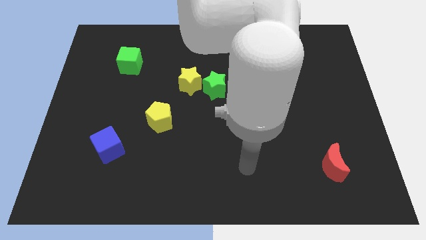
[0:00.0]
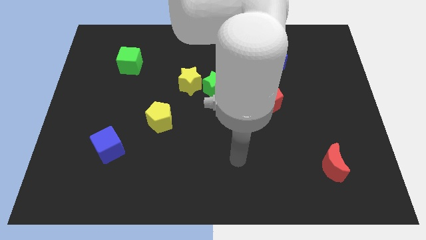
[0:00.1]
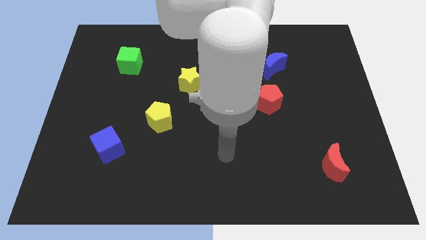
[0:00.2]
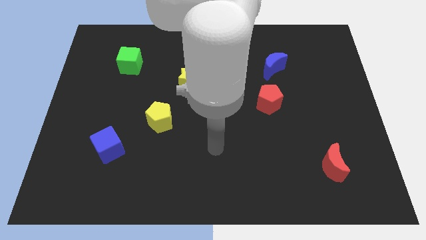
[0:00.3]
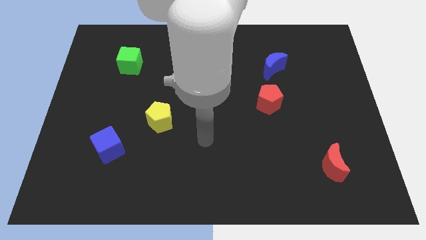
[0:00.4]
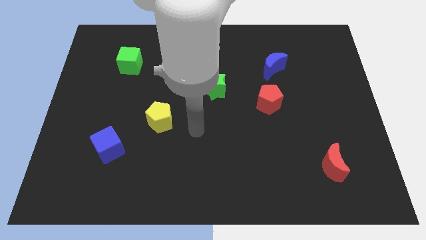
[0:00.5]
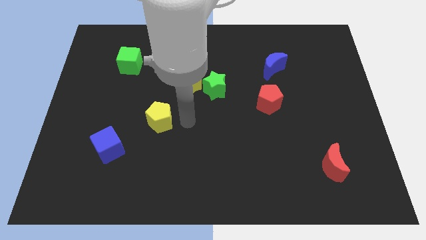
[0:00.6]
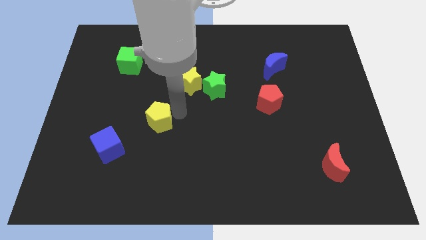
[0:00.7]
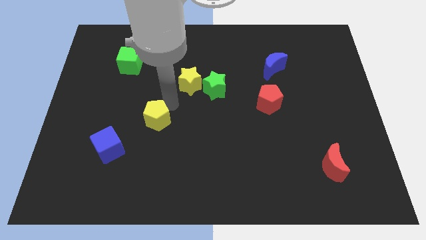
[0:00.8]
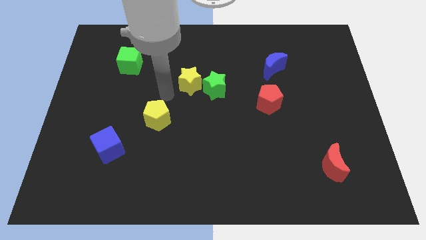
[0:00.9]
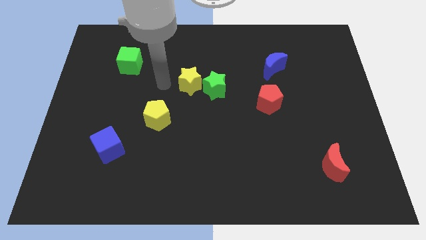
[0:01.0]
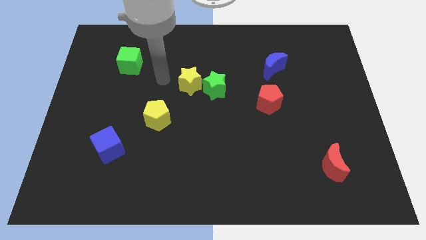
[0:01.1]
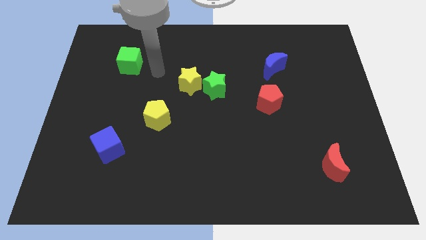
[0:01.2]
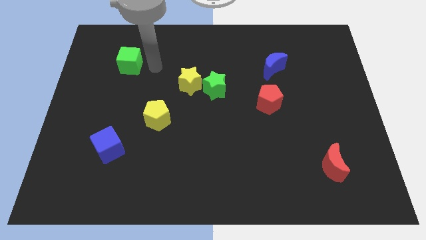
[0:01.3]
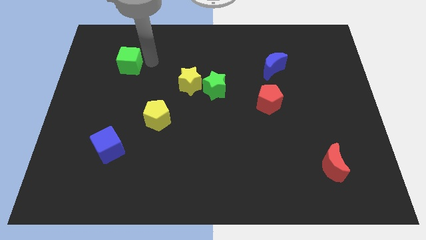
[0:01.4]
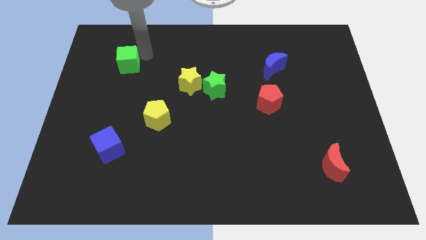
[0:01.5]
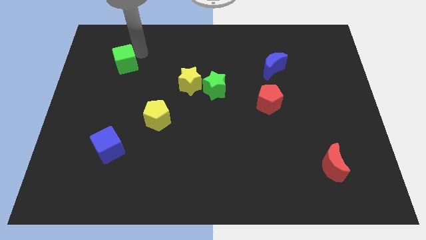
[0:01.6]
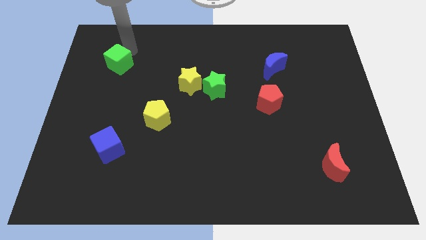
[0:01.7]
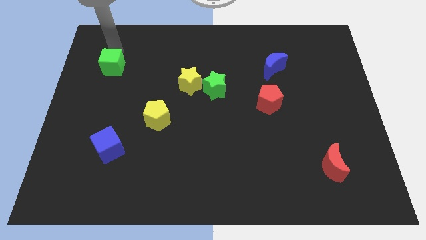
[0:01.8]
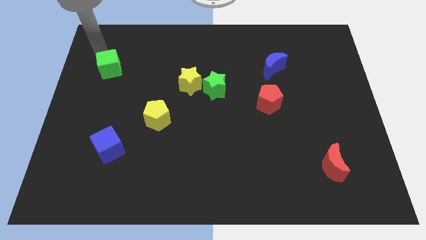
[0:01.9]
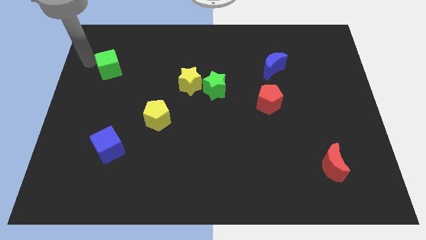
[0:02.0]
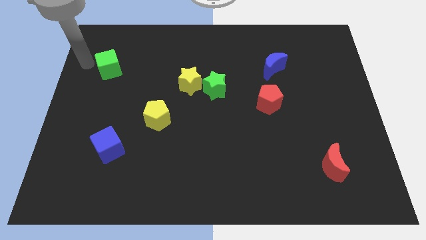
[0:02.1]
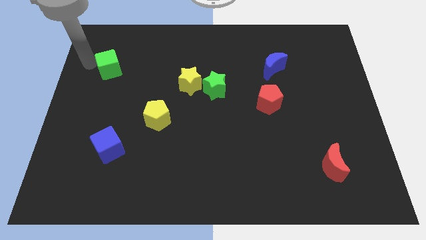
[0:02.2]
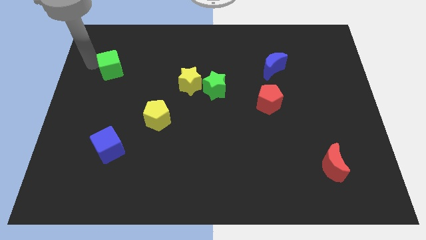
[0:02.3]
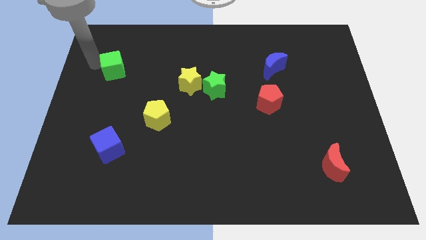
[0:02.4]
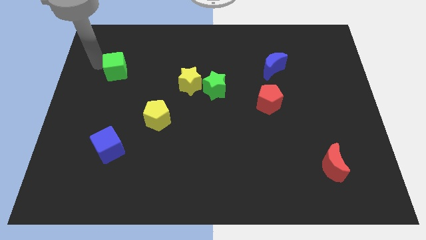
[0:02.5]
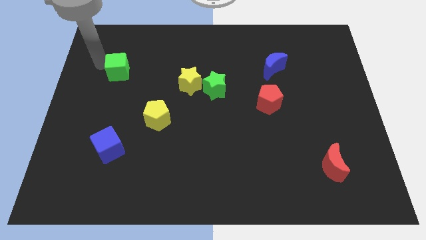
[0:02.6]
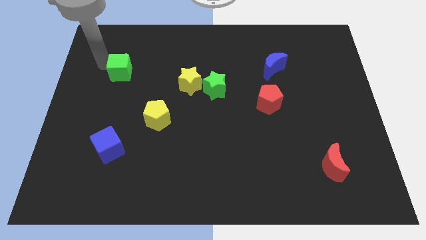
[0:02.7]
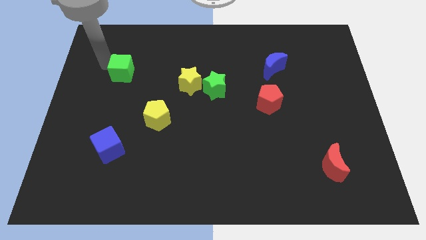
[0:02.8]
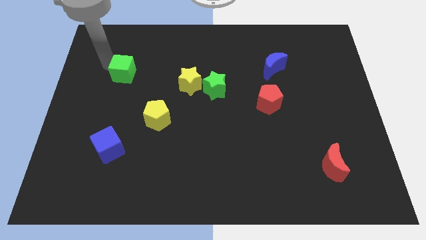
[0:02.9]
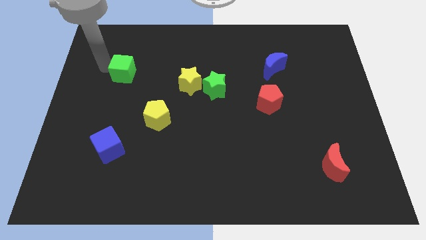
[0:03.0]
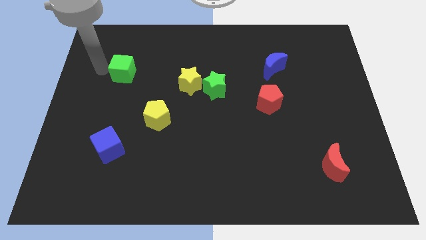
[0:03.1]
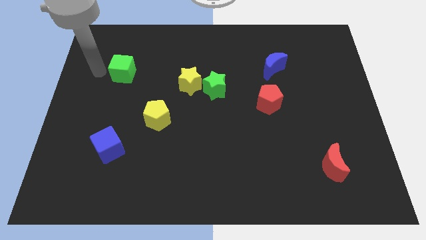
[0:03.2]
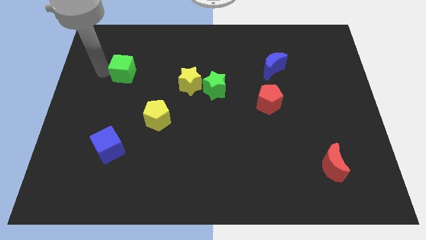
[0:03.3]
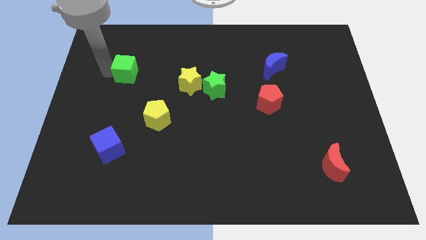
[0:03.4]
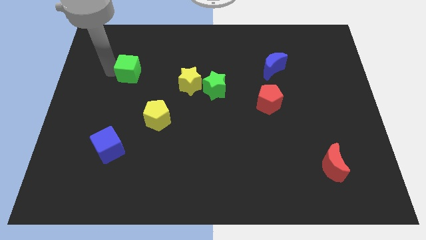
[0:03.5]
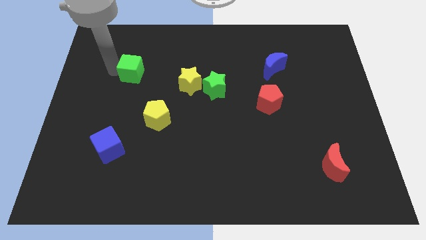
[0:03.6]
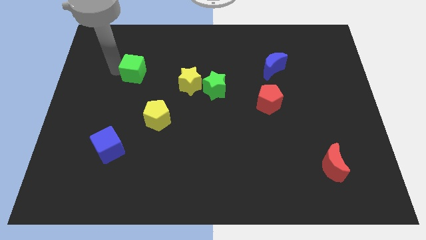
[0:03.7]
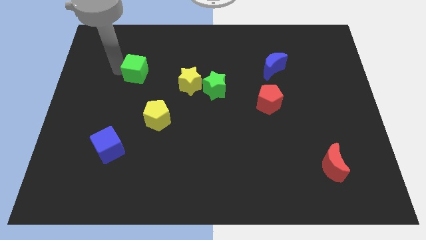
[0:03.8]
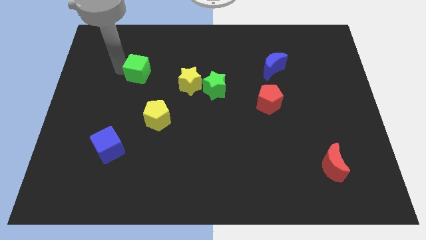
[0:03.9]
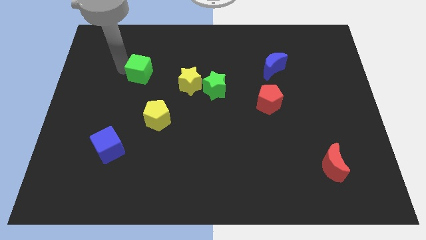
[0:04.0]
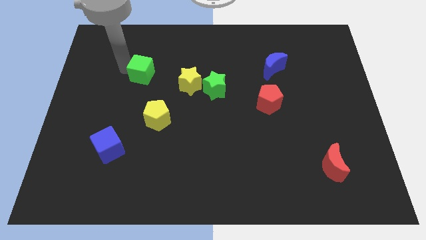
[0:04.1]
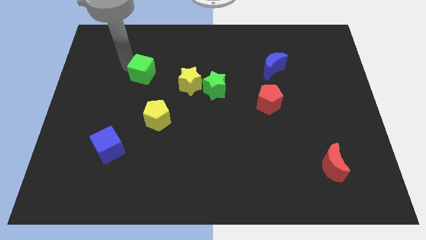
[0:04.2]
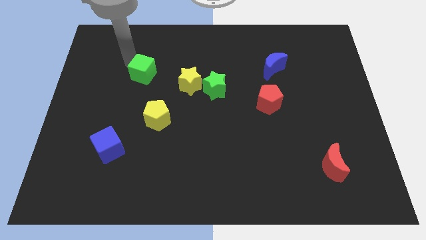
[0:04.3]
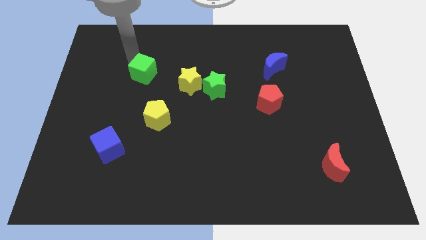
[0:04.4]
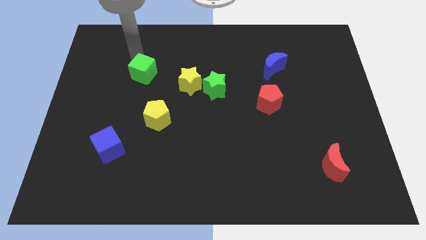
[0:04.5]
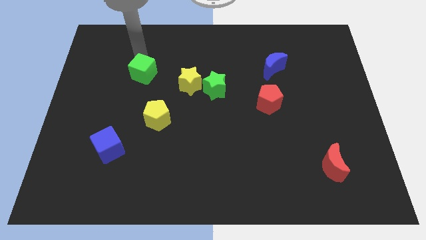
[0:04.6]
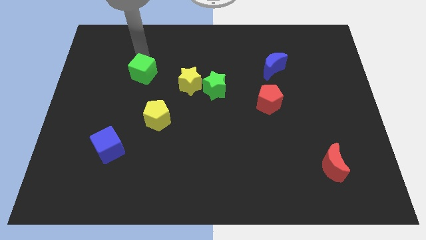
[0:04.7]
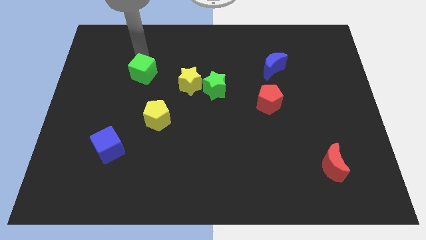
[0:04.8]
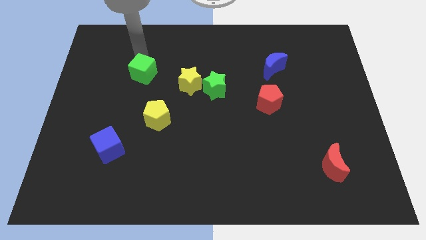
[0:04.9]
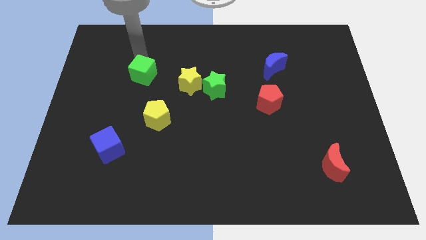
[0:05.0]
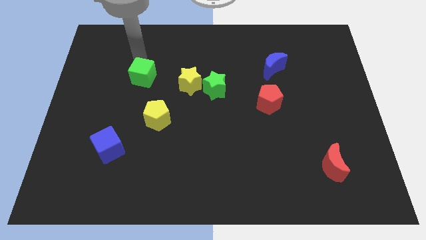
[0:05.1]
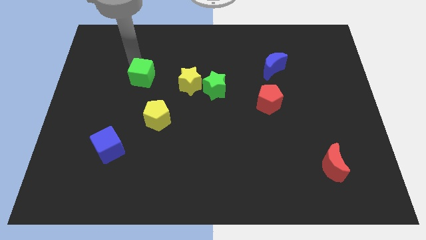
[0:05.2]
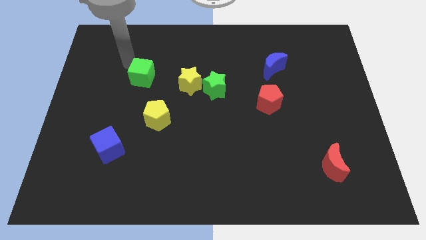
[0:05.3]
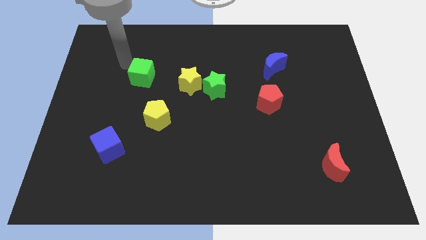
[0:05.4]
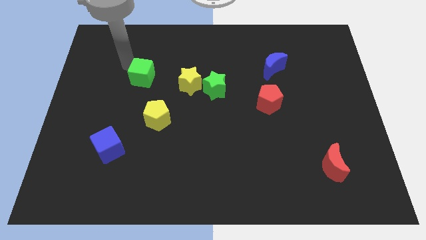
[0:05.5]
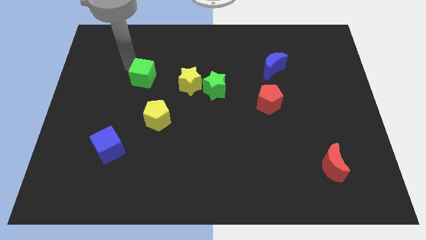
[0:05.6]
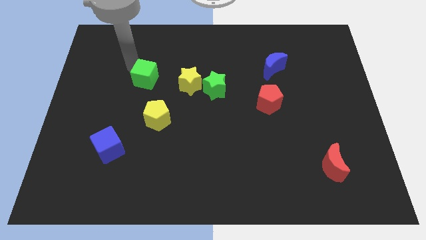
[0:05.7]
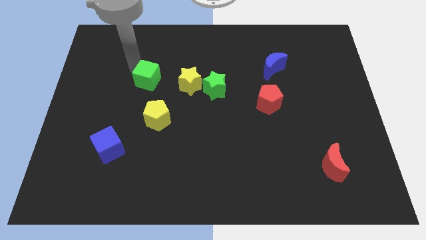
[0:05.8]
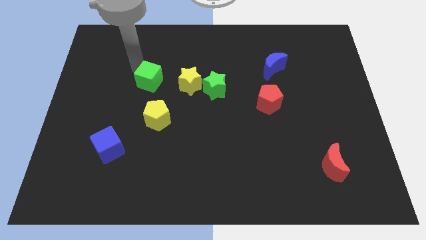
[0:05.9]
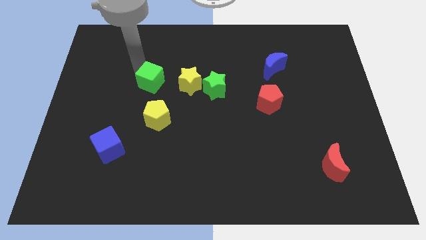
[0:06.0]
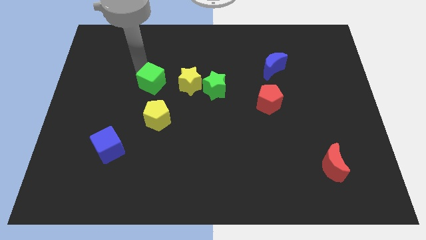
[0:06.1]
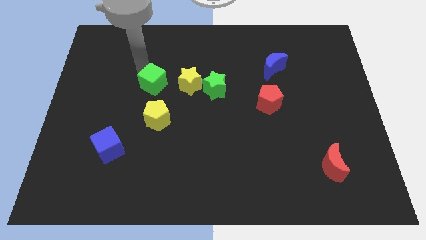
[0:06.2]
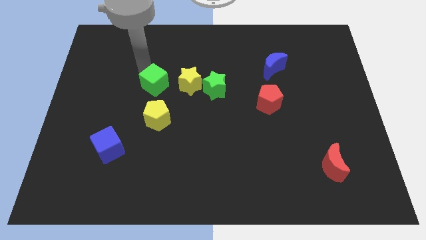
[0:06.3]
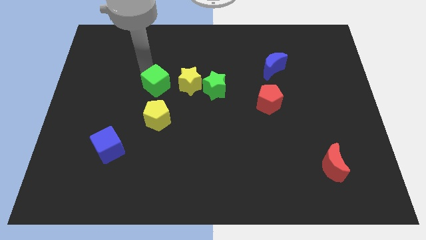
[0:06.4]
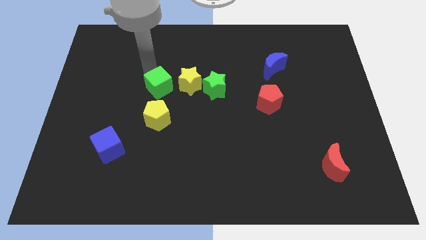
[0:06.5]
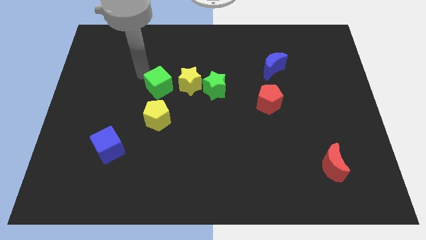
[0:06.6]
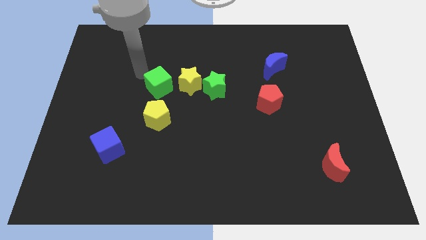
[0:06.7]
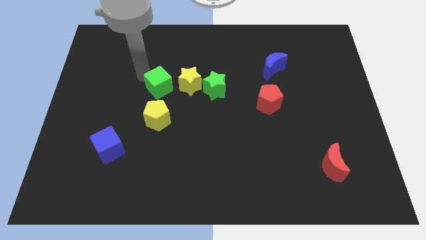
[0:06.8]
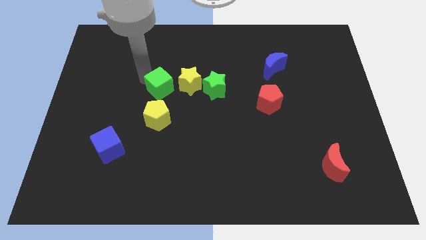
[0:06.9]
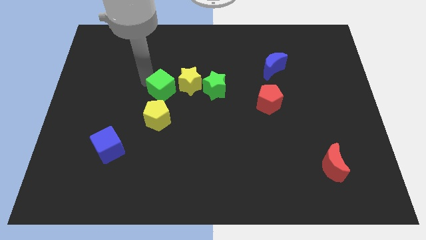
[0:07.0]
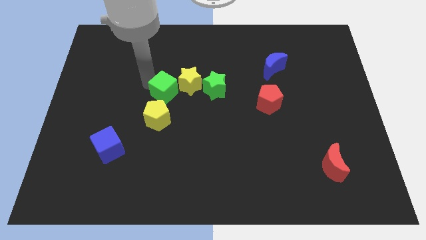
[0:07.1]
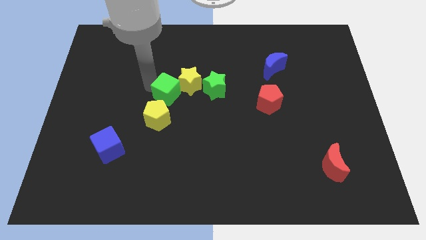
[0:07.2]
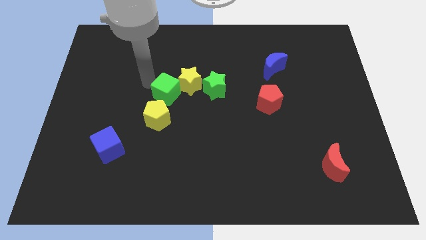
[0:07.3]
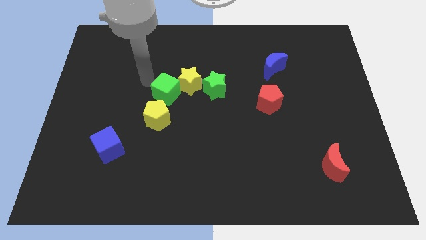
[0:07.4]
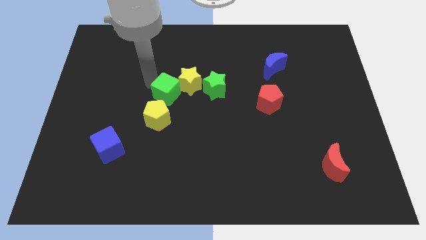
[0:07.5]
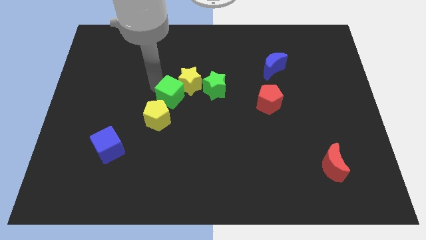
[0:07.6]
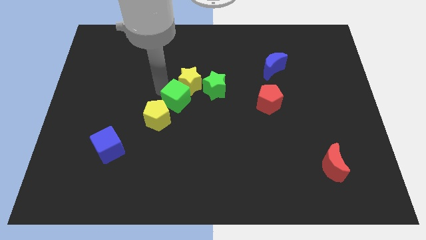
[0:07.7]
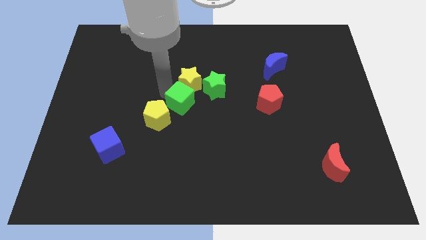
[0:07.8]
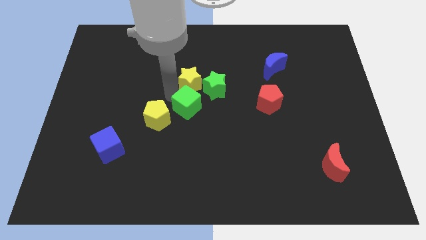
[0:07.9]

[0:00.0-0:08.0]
slide the green cube diagonally downwards and right

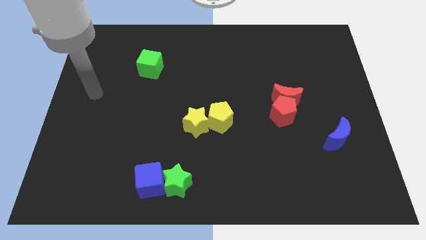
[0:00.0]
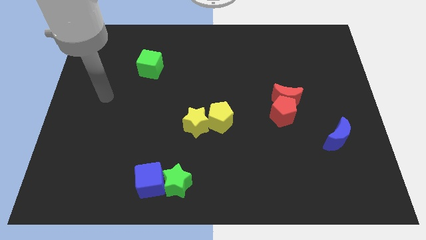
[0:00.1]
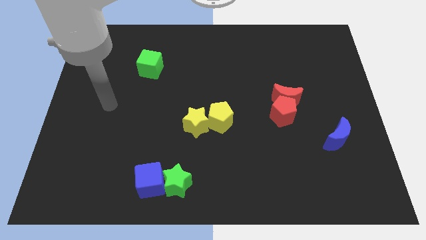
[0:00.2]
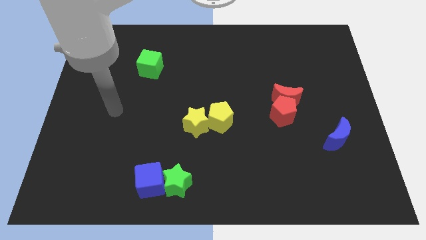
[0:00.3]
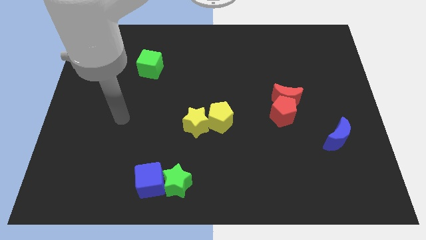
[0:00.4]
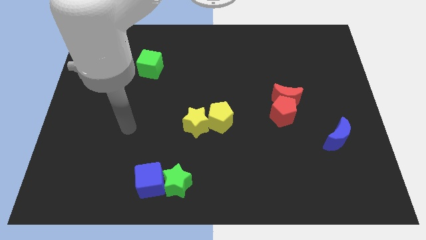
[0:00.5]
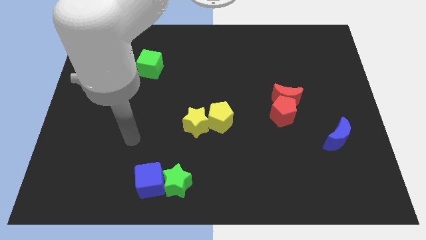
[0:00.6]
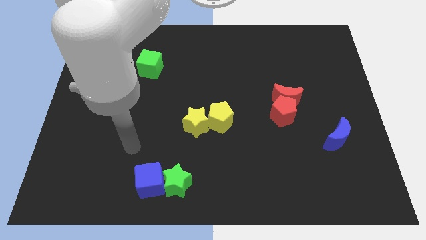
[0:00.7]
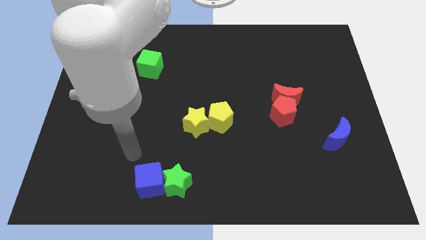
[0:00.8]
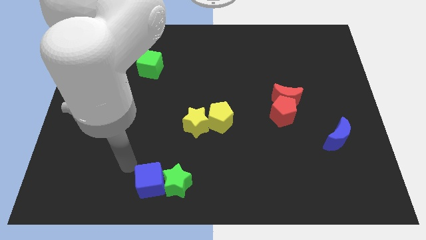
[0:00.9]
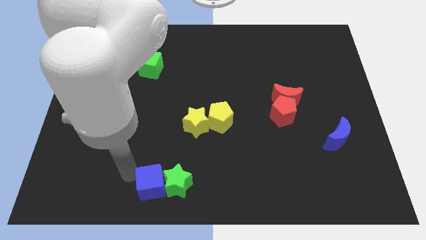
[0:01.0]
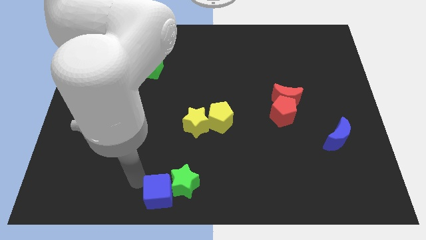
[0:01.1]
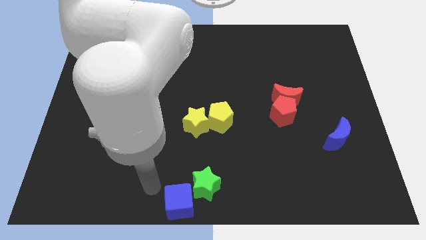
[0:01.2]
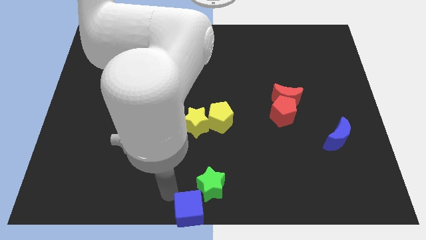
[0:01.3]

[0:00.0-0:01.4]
slightly slide the green star right
